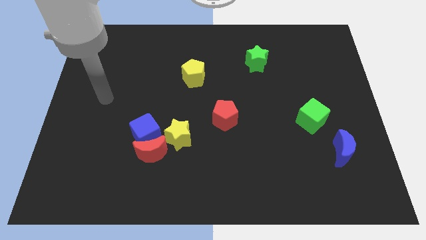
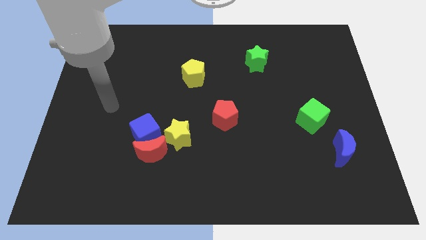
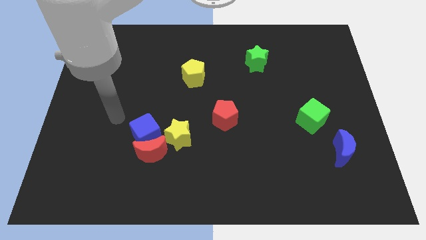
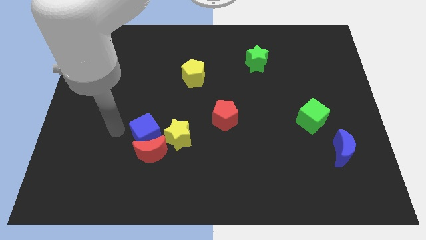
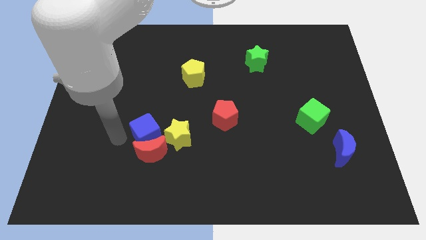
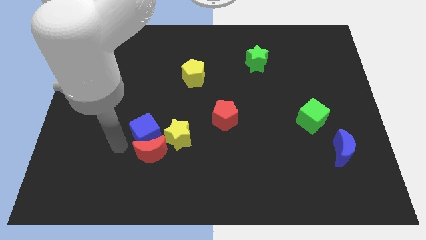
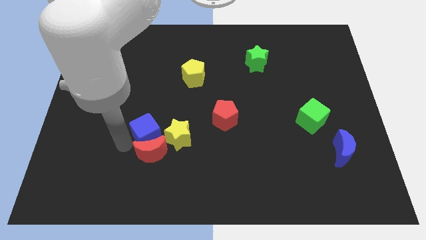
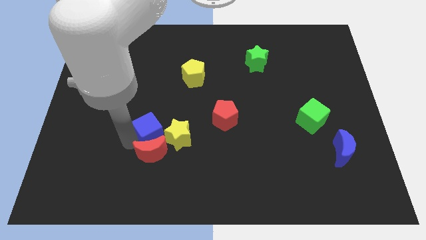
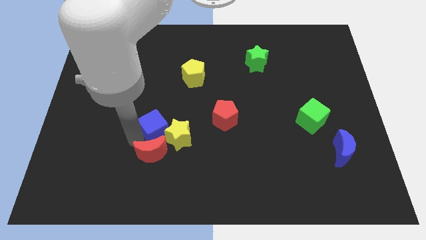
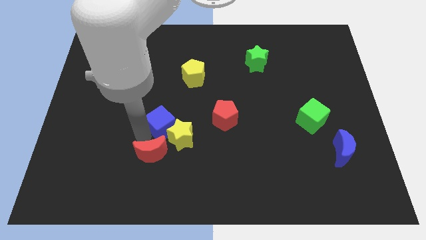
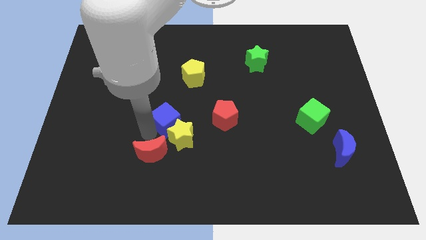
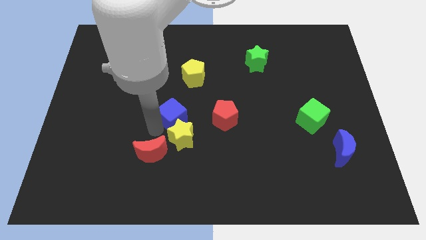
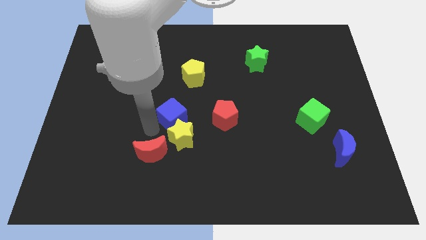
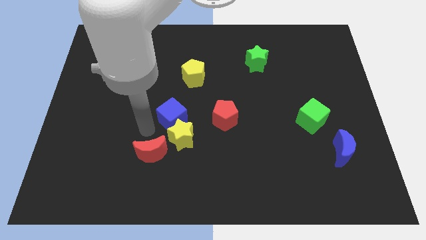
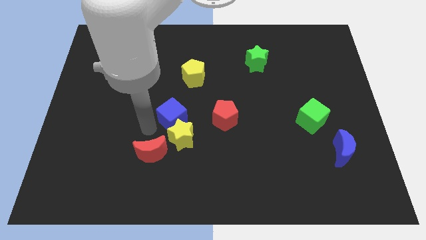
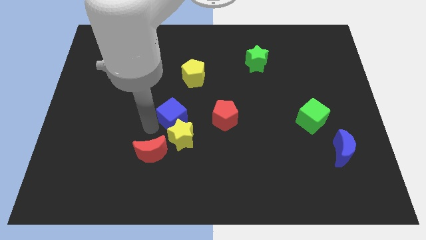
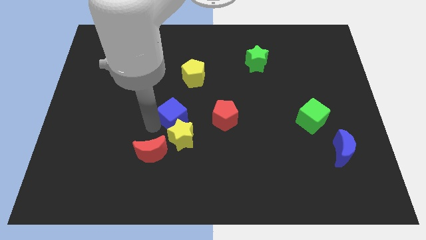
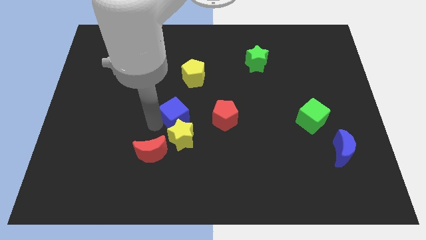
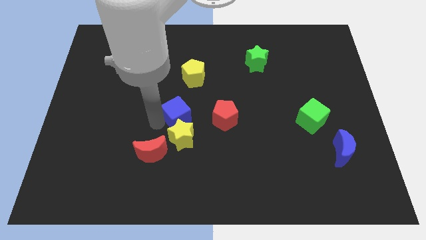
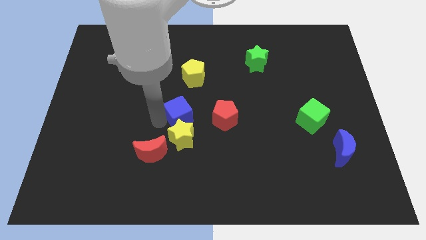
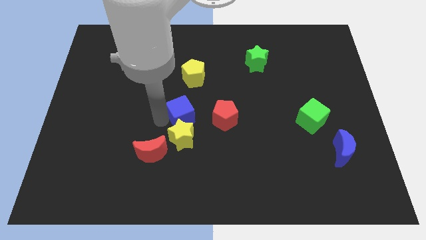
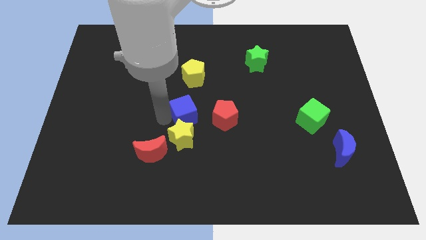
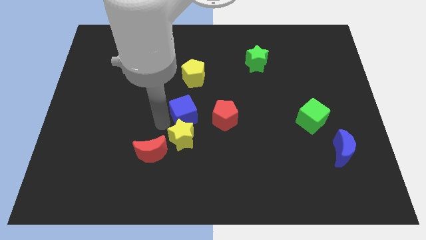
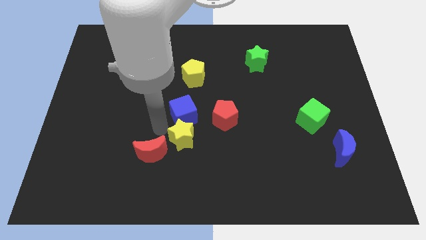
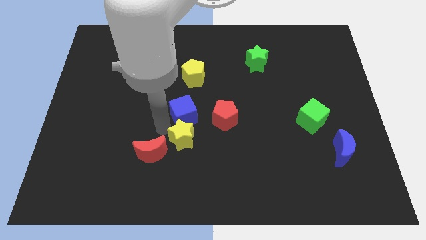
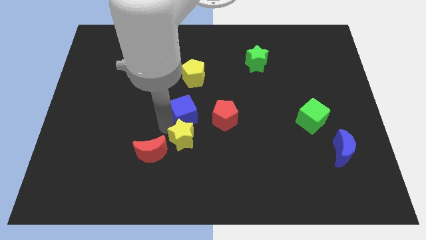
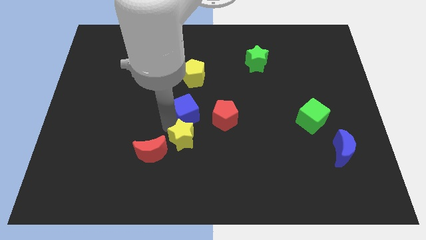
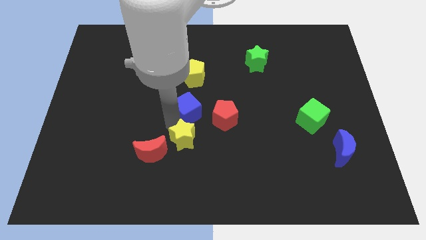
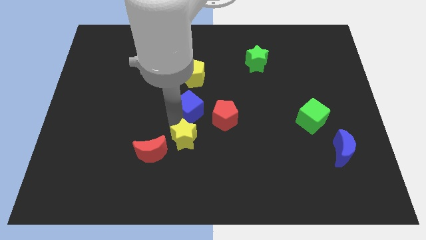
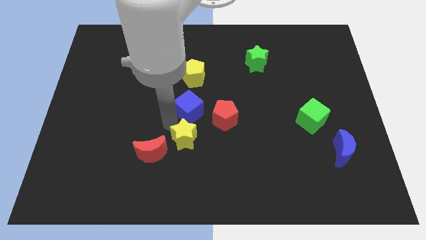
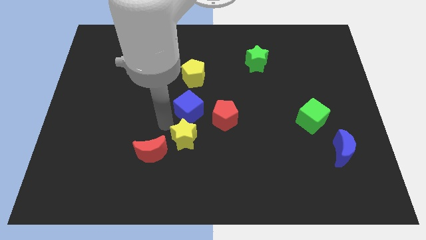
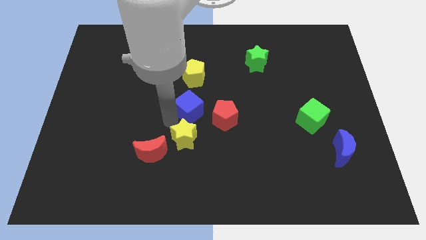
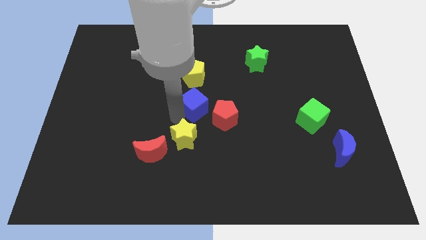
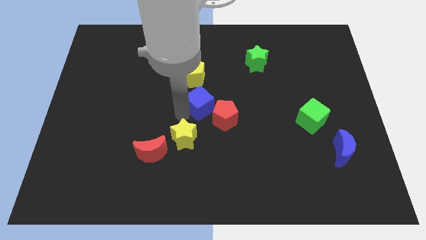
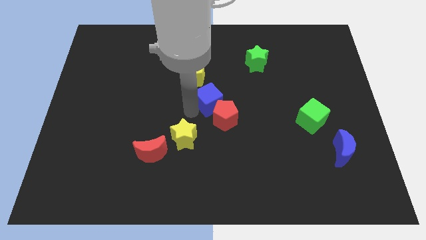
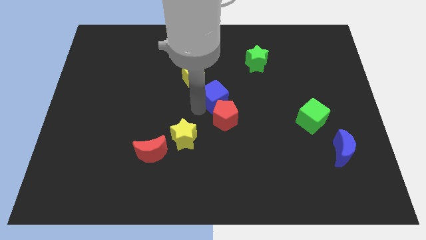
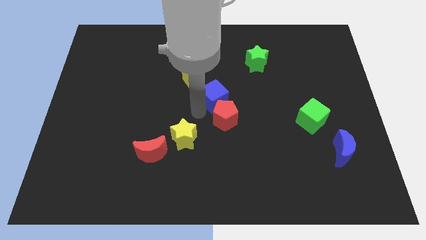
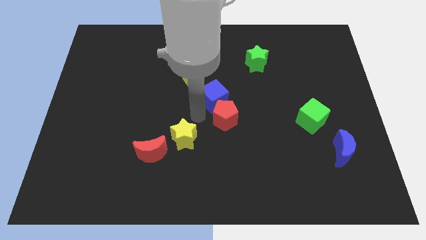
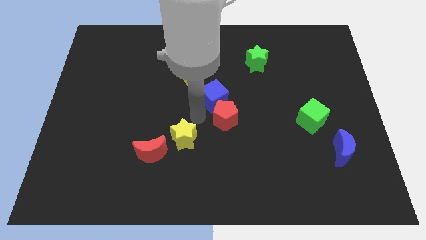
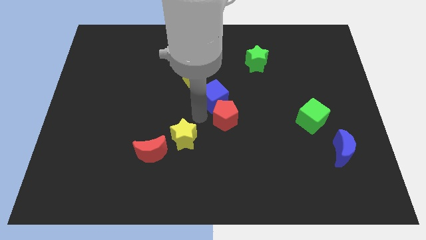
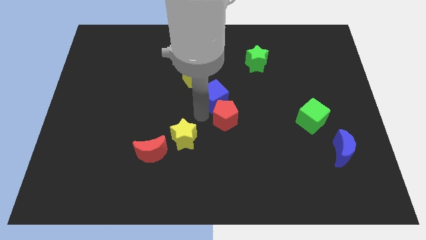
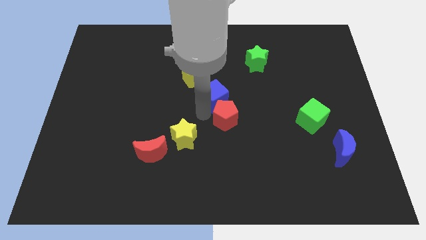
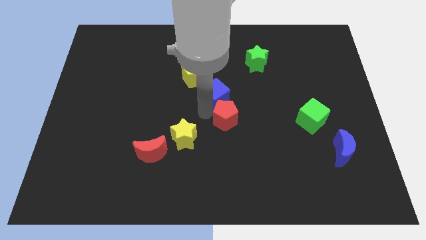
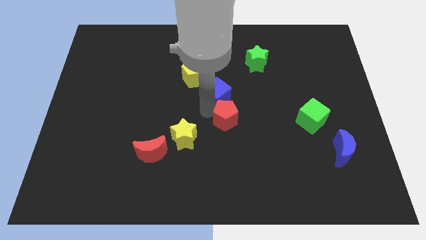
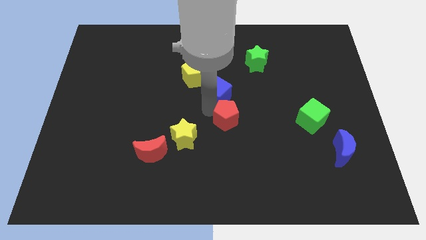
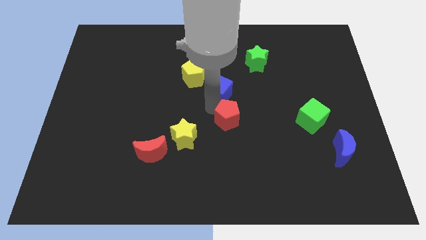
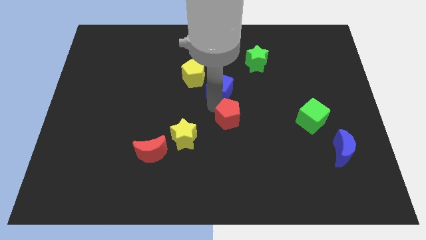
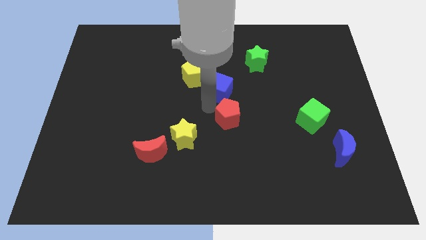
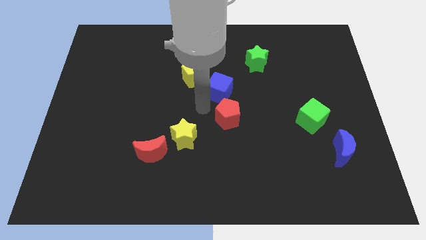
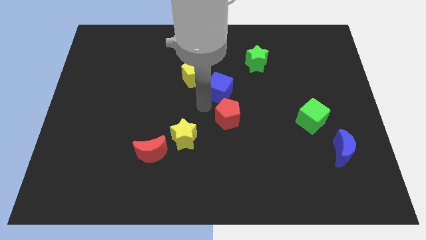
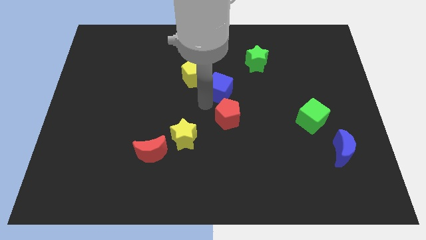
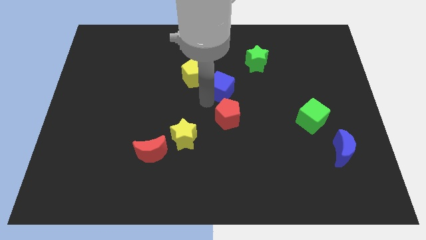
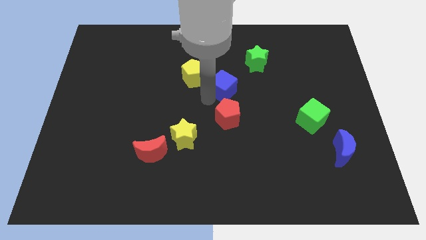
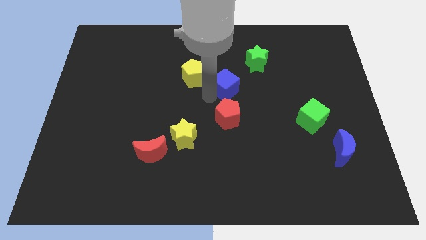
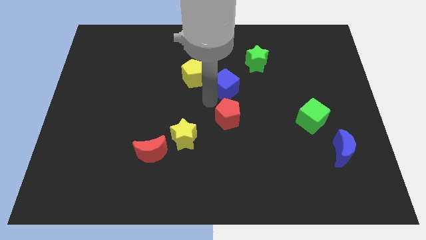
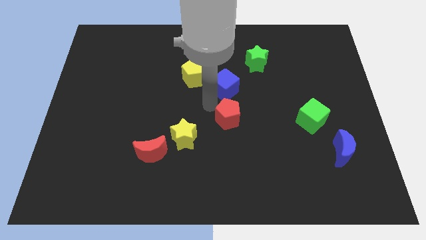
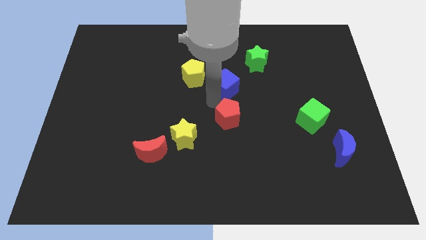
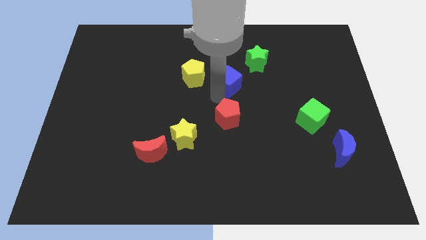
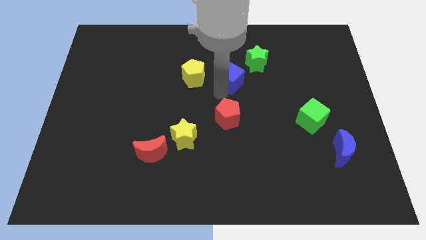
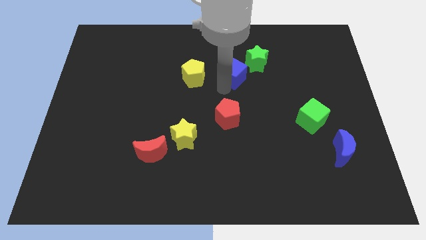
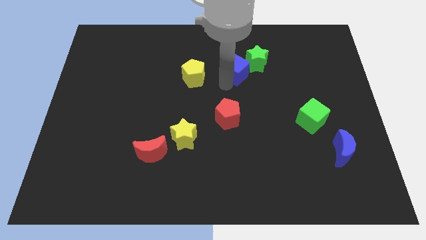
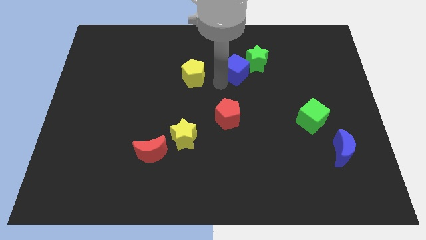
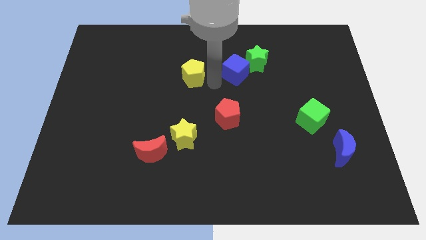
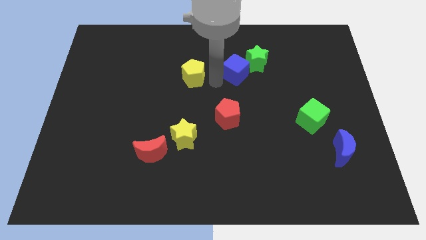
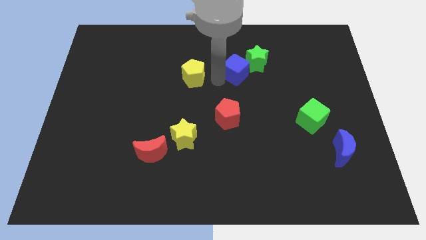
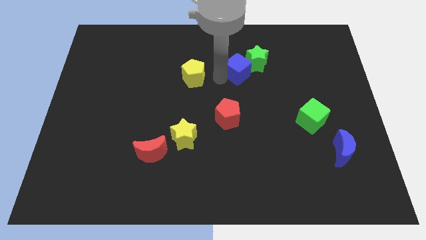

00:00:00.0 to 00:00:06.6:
move the blue cube to the green star

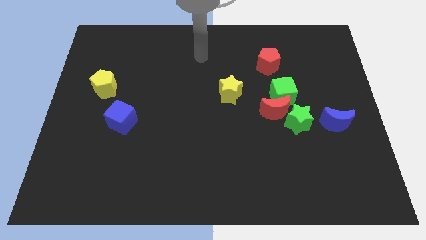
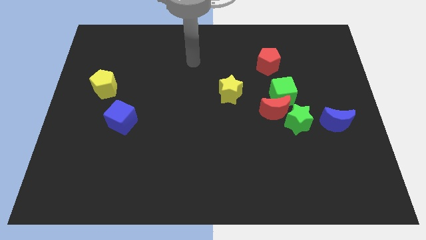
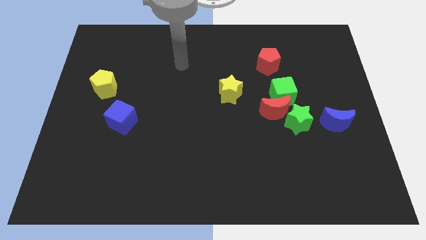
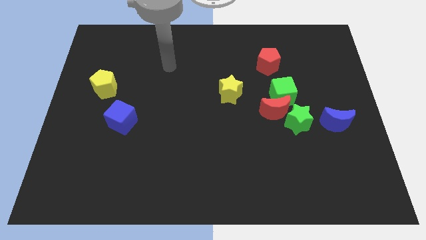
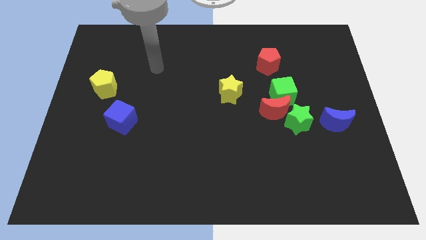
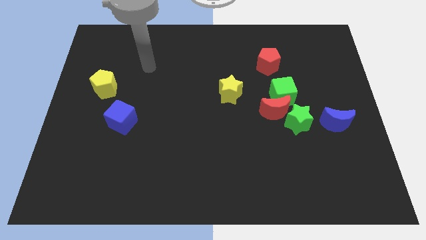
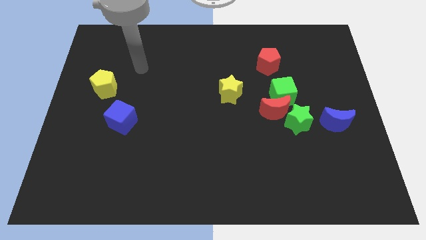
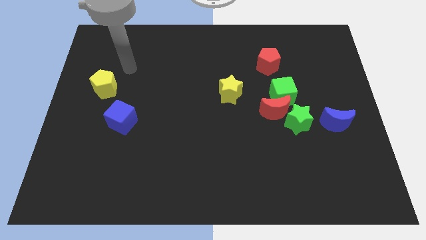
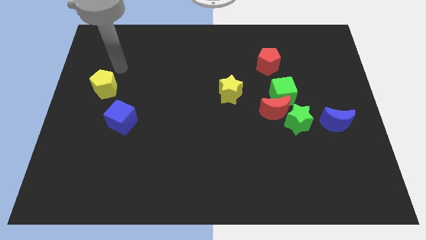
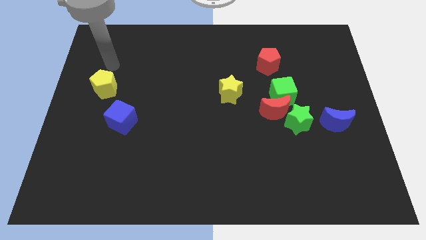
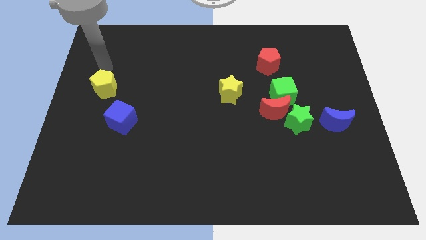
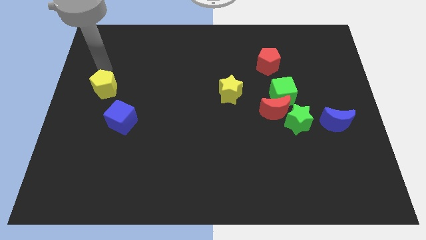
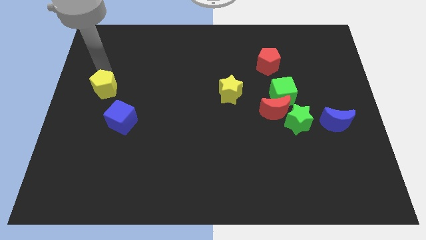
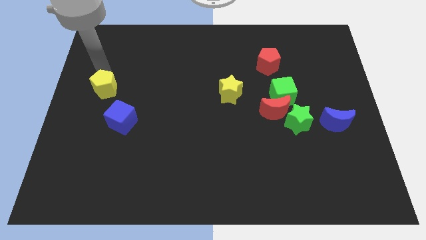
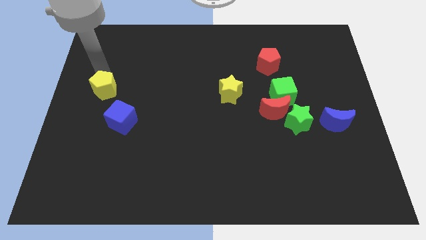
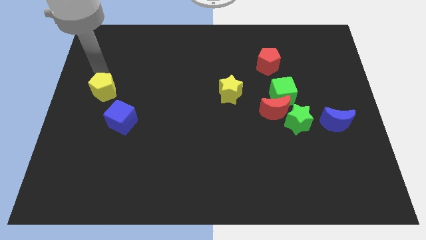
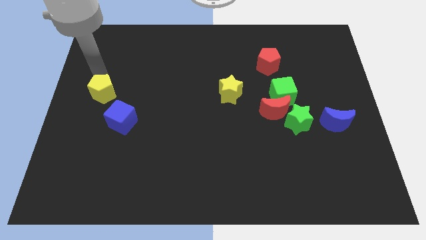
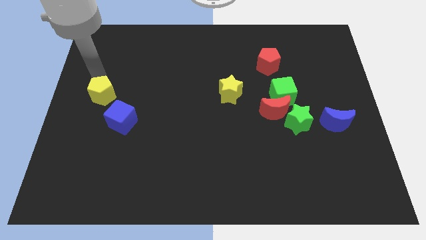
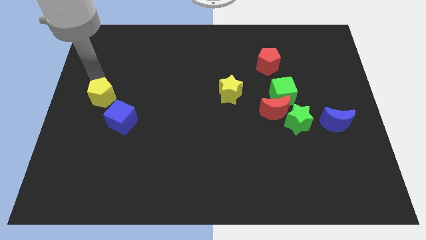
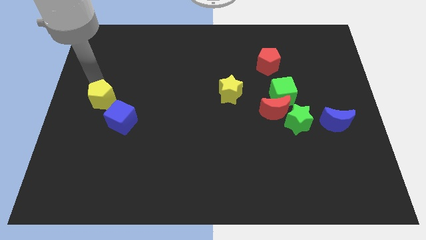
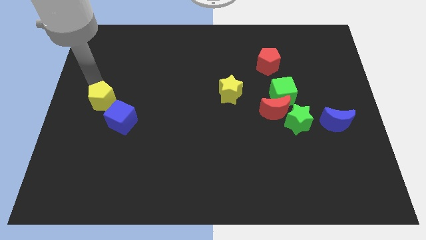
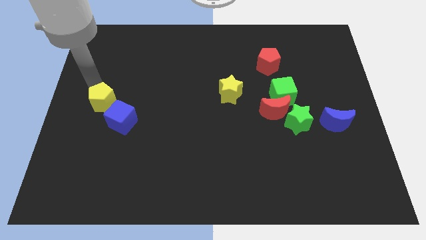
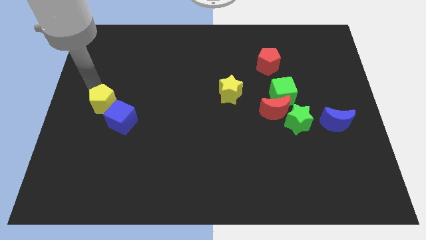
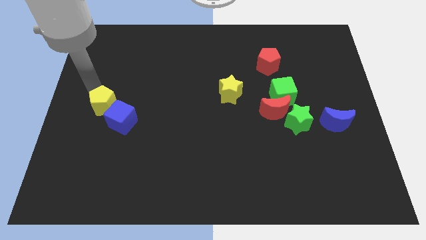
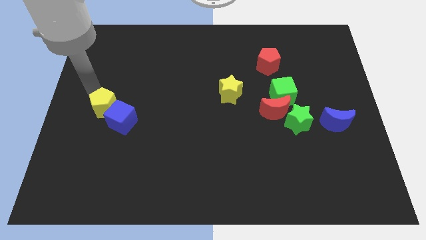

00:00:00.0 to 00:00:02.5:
push the yellow pentagon to the blue cube
